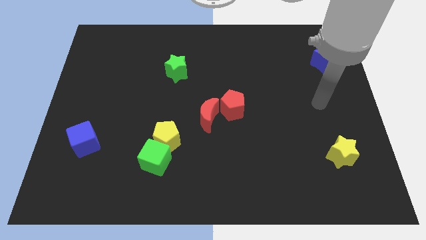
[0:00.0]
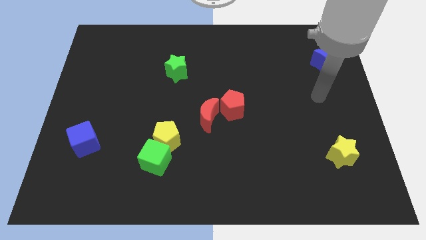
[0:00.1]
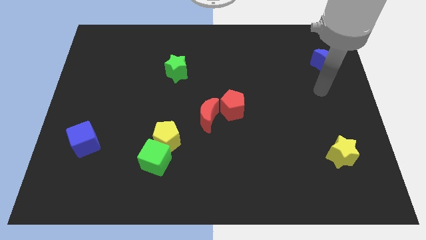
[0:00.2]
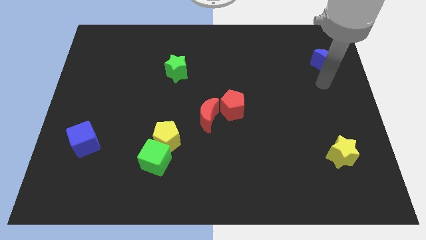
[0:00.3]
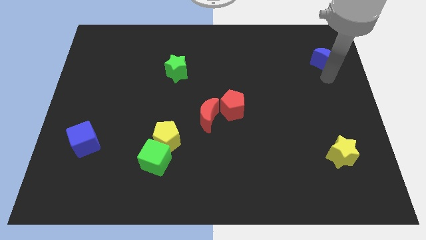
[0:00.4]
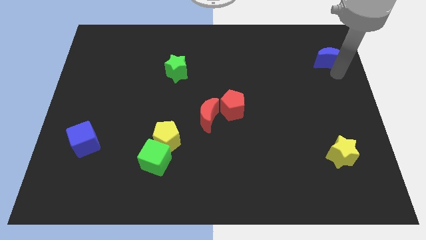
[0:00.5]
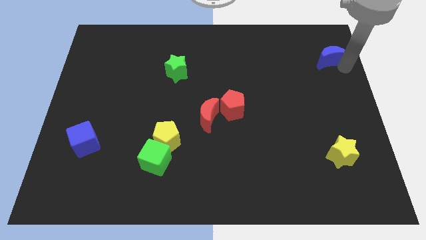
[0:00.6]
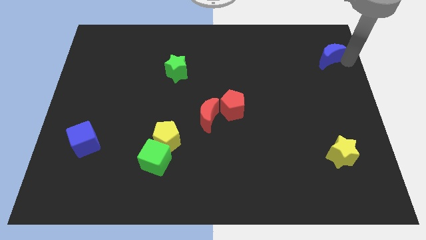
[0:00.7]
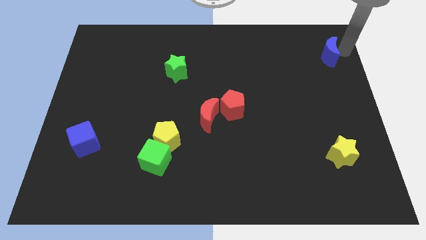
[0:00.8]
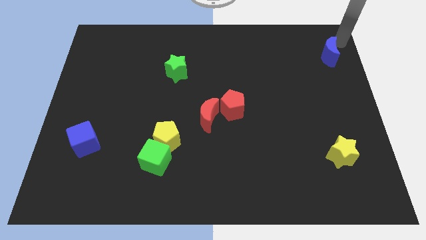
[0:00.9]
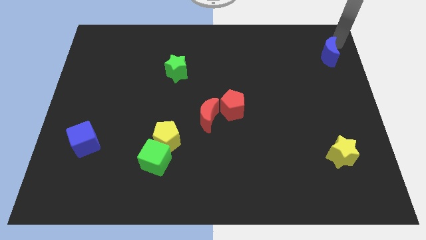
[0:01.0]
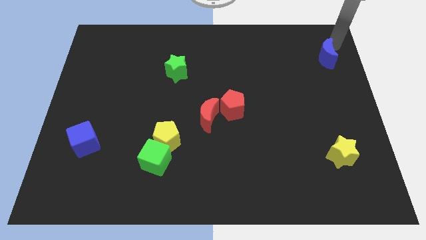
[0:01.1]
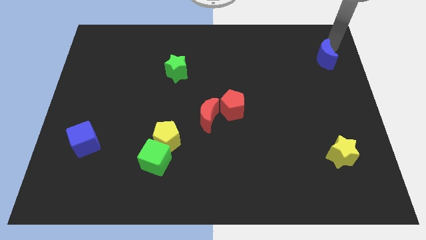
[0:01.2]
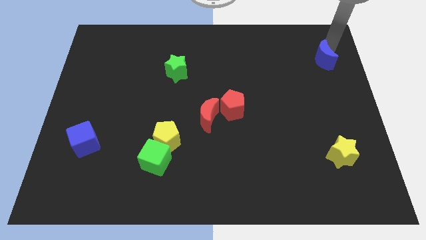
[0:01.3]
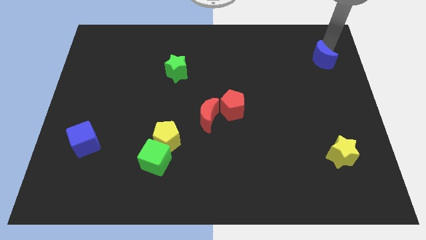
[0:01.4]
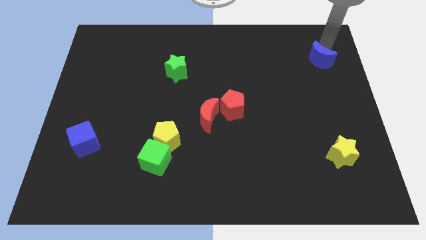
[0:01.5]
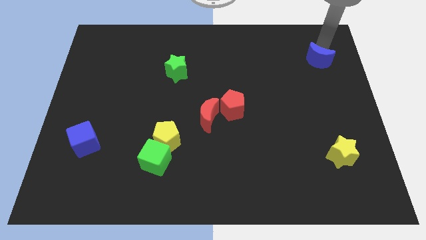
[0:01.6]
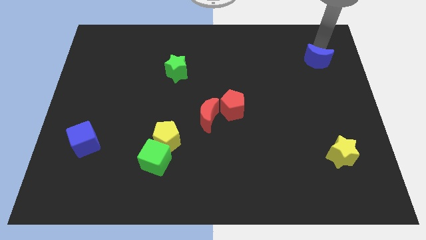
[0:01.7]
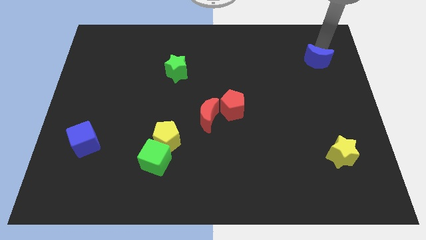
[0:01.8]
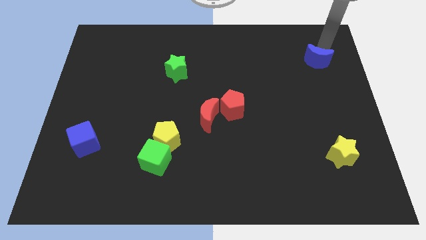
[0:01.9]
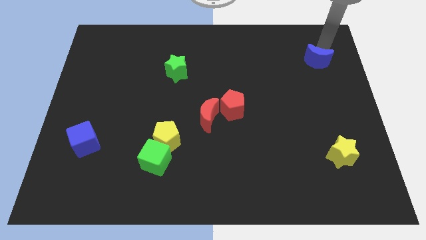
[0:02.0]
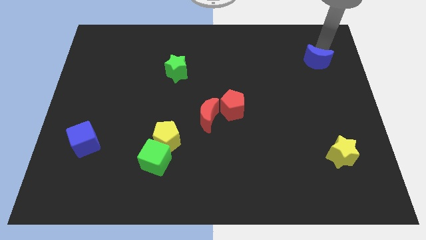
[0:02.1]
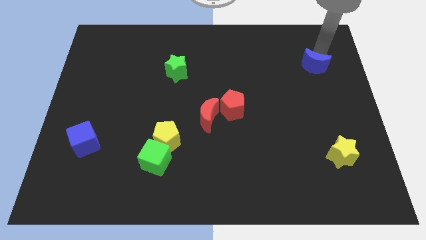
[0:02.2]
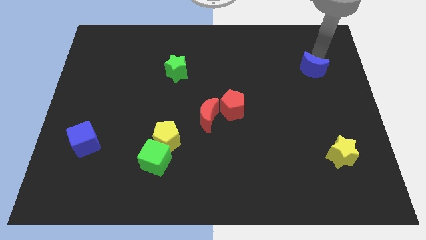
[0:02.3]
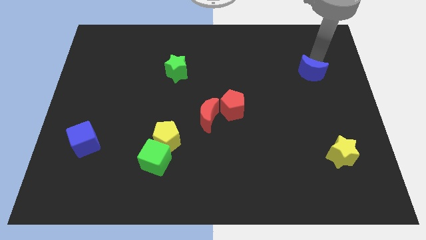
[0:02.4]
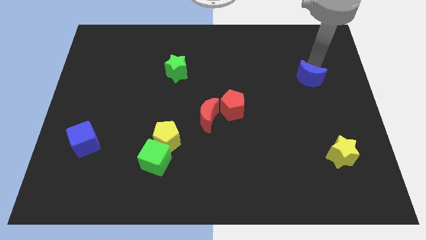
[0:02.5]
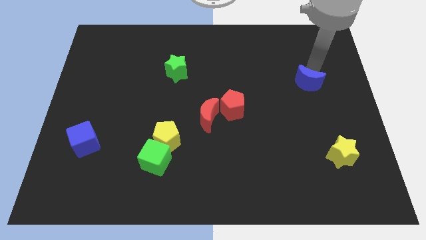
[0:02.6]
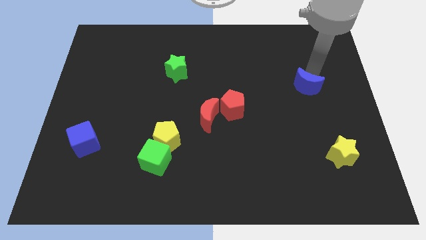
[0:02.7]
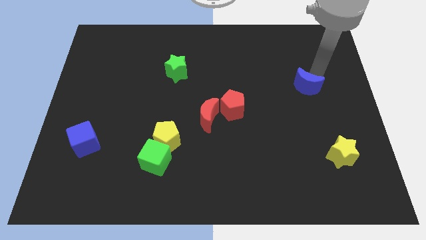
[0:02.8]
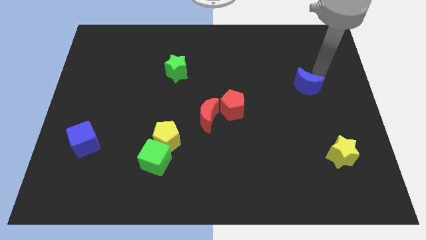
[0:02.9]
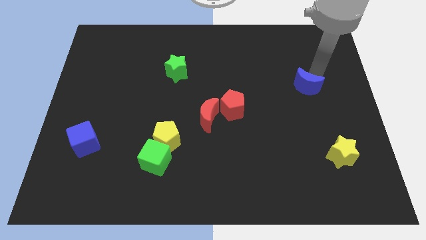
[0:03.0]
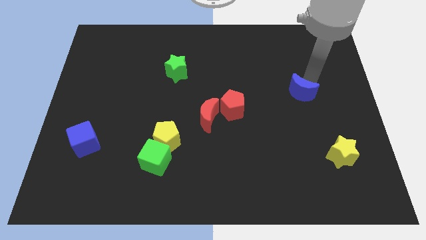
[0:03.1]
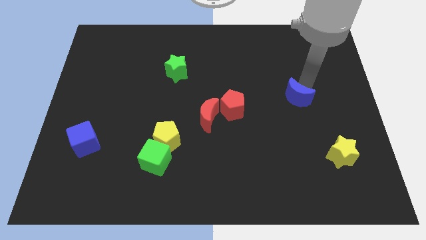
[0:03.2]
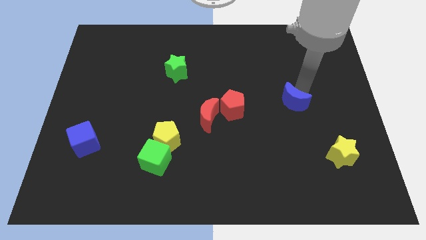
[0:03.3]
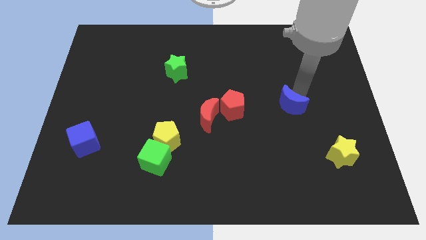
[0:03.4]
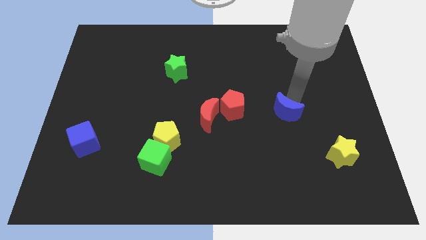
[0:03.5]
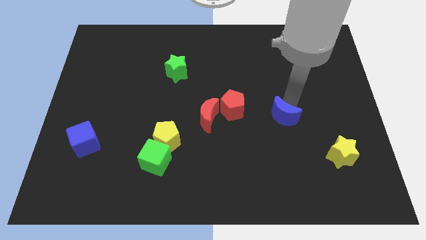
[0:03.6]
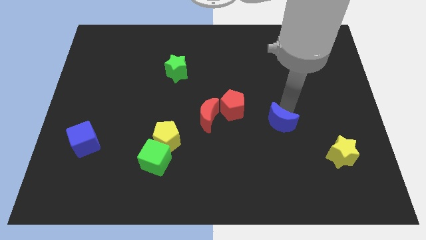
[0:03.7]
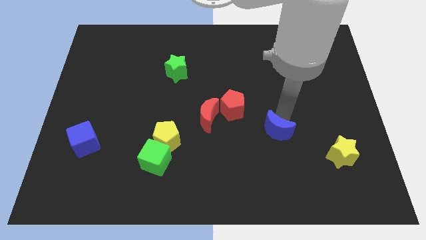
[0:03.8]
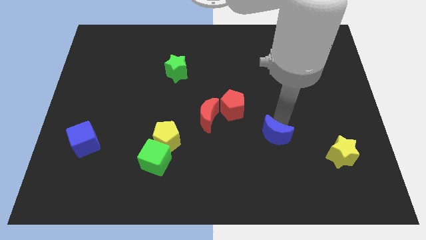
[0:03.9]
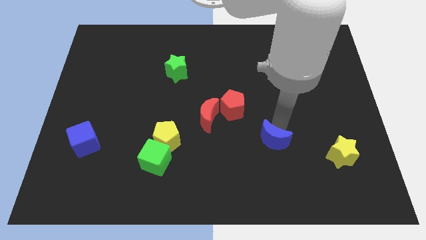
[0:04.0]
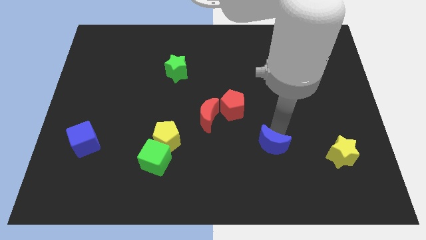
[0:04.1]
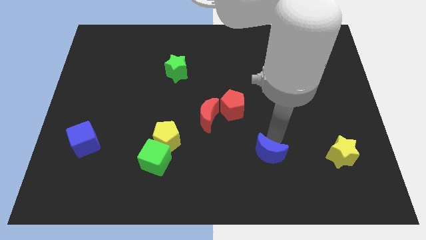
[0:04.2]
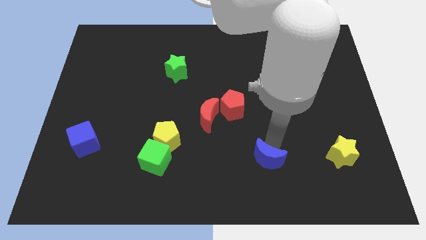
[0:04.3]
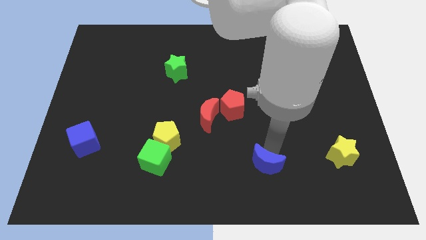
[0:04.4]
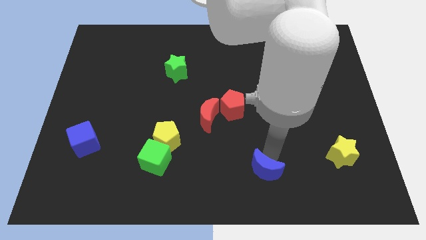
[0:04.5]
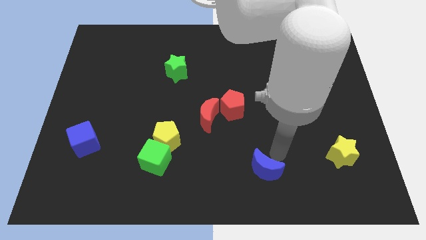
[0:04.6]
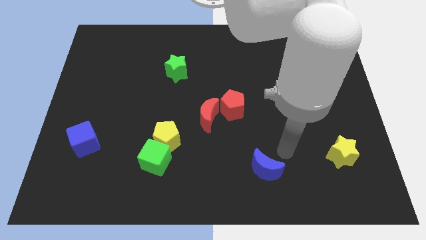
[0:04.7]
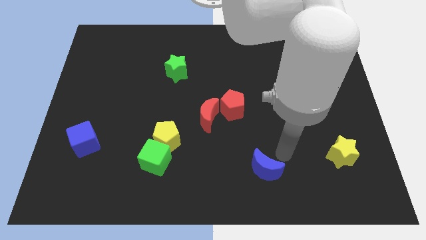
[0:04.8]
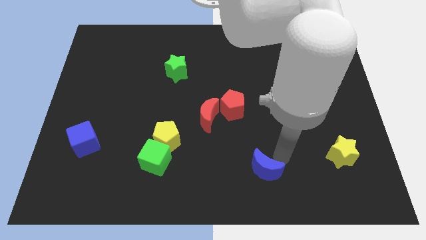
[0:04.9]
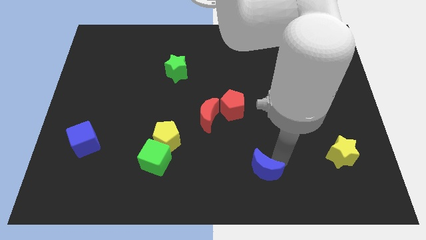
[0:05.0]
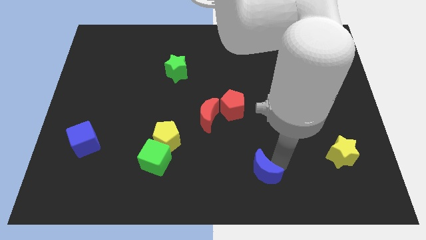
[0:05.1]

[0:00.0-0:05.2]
put the blue moon to the bottom
